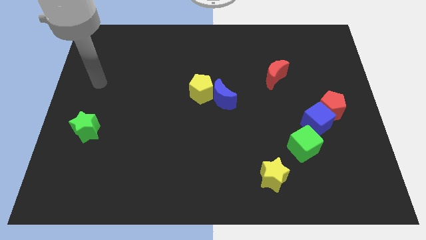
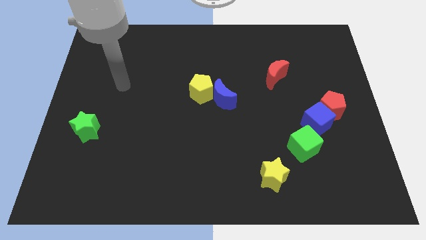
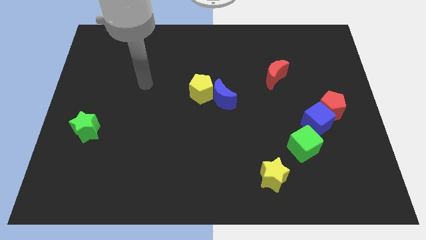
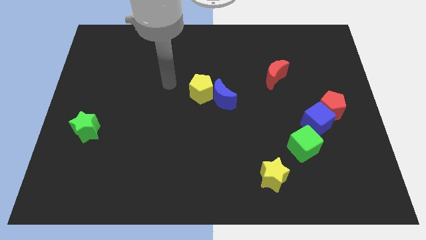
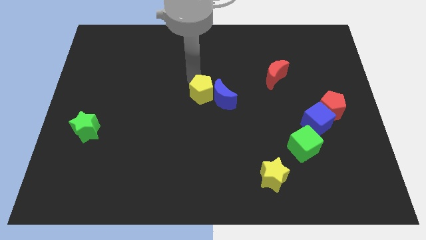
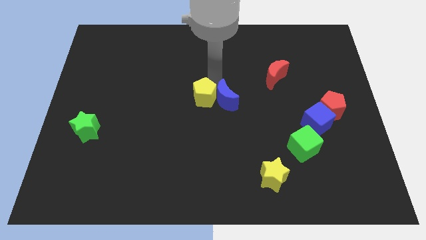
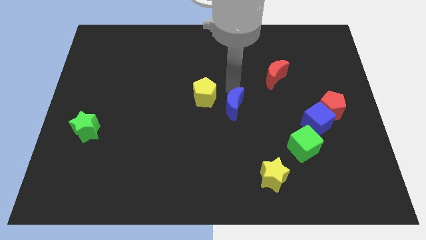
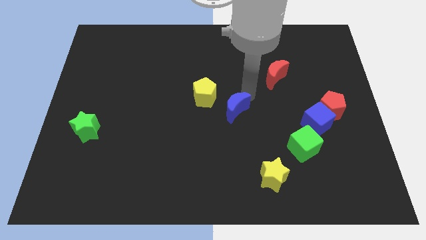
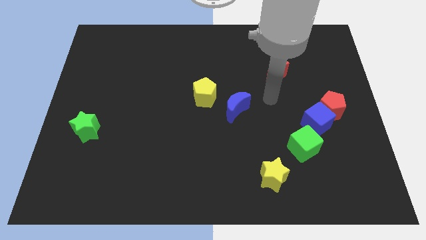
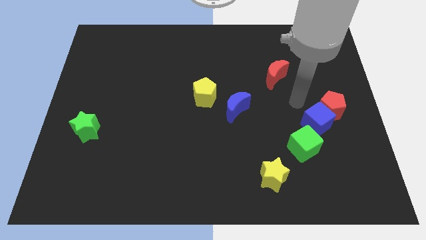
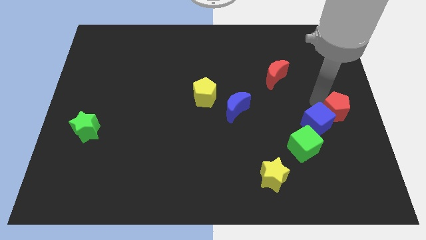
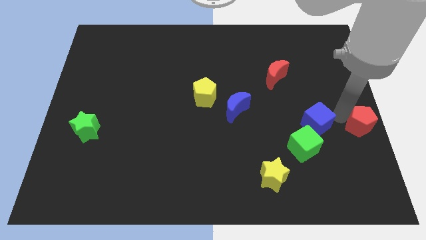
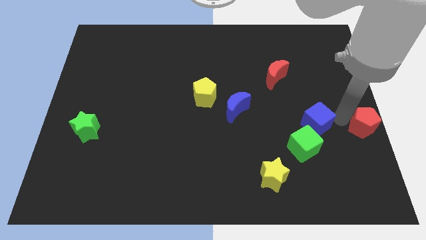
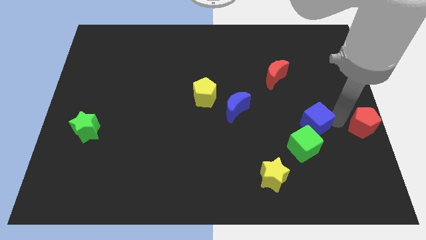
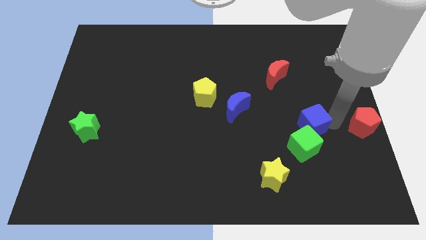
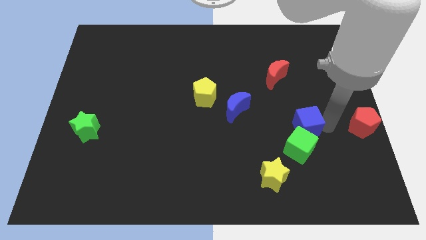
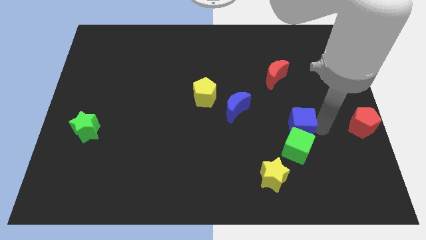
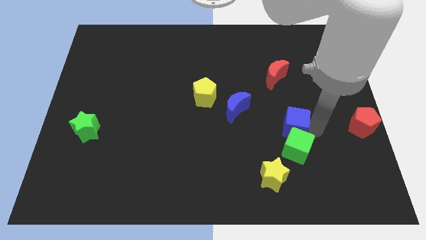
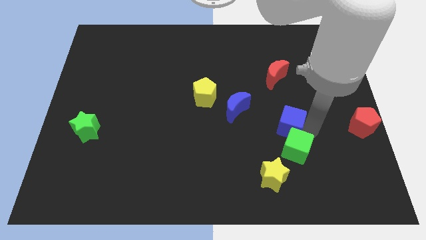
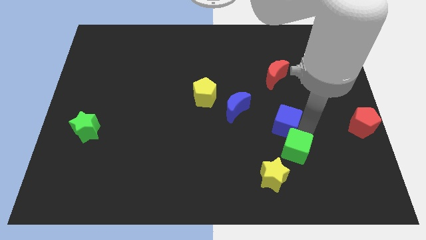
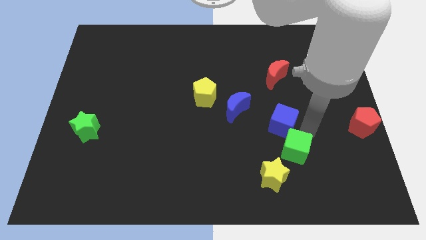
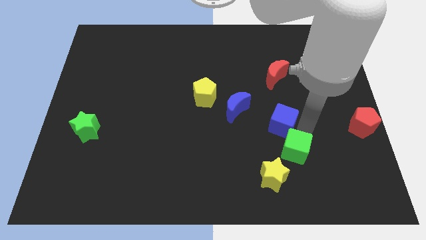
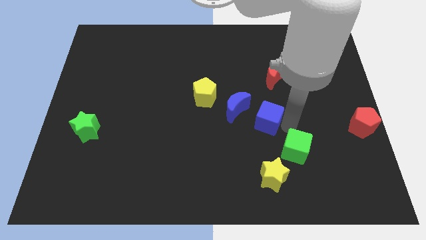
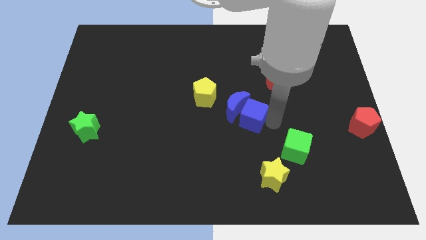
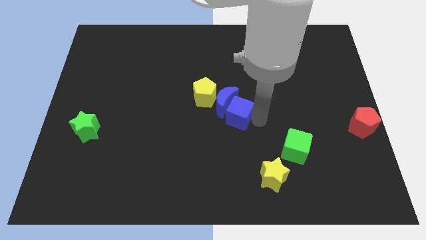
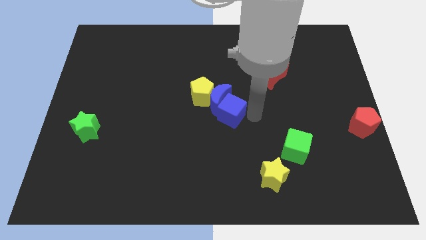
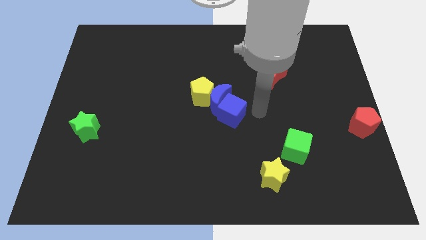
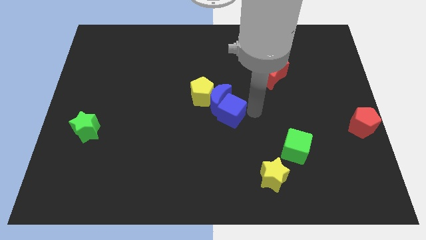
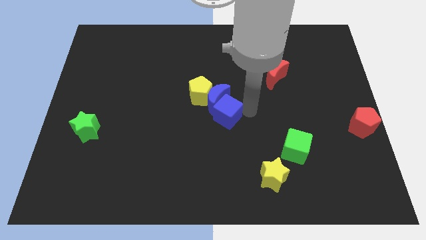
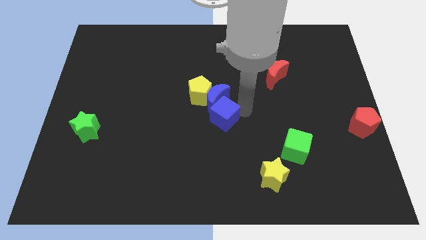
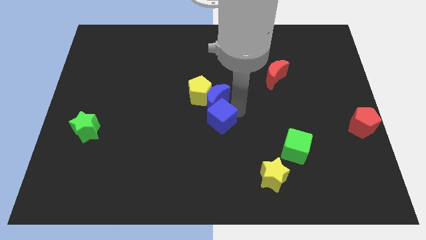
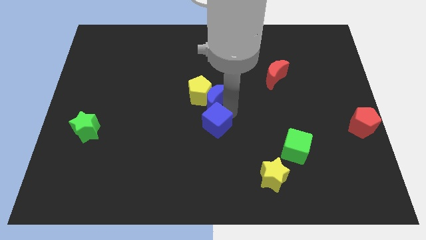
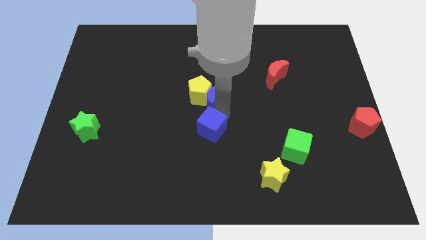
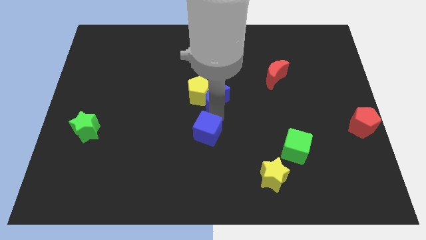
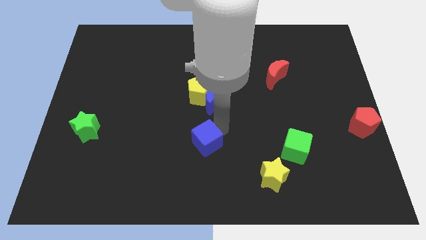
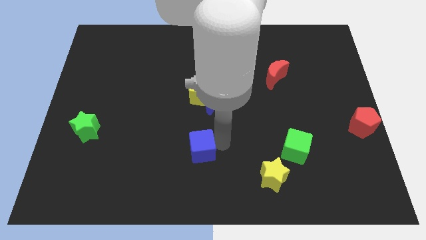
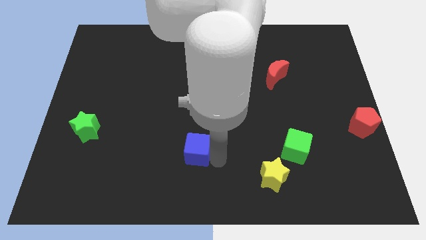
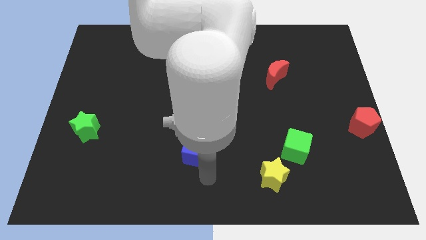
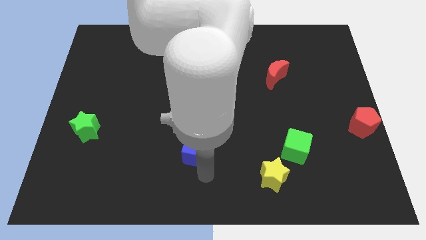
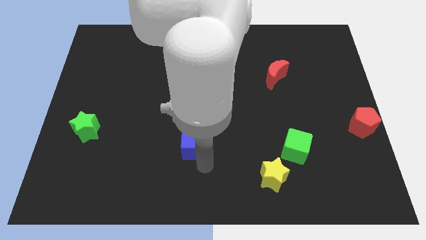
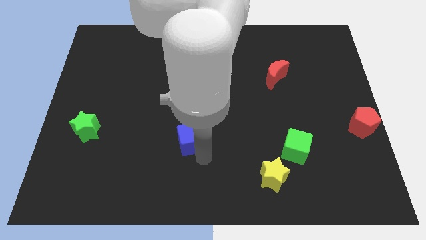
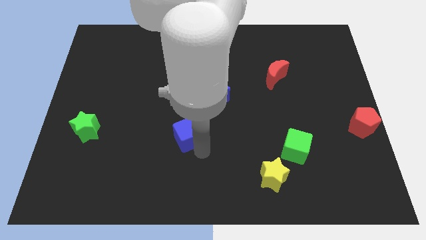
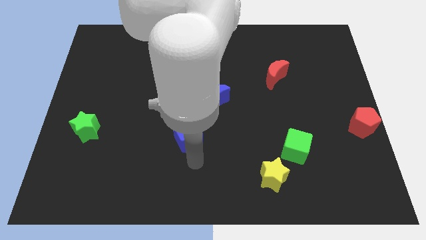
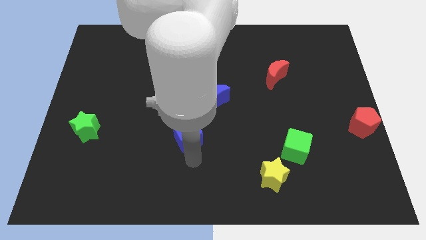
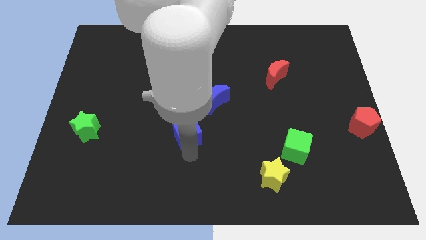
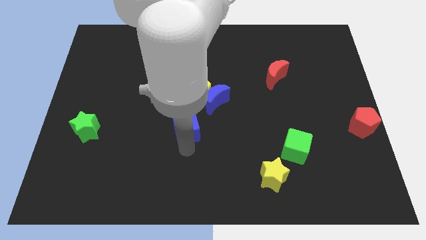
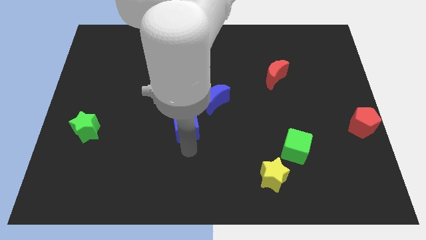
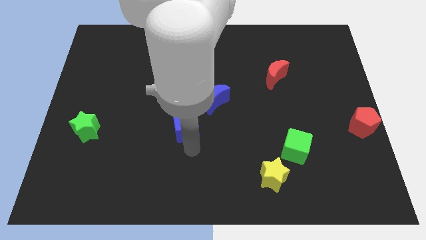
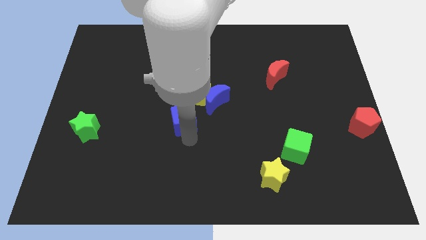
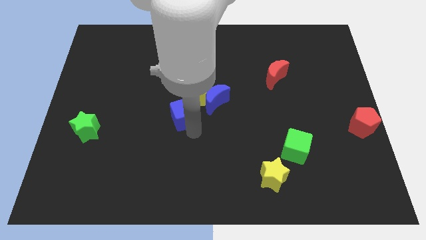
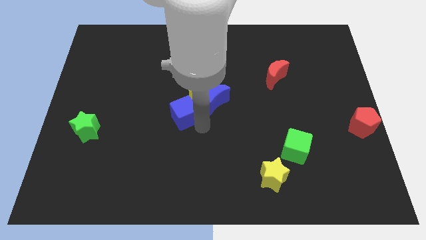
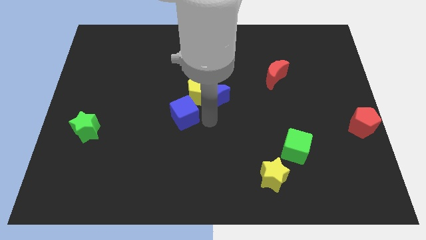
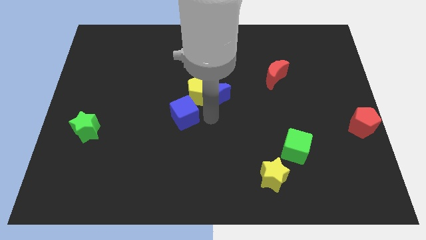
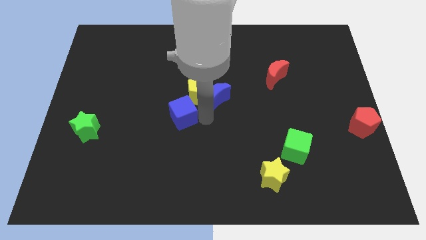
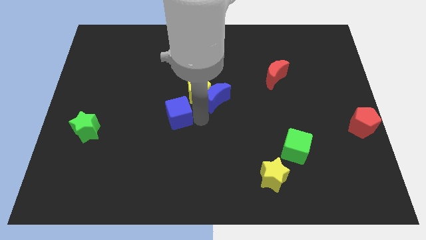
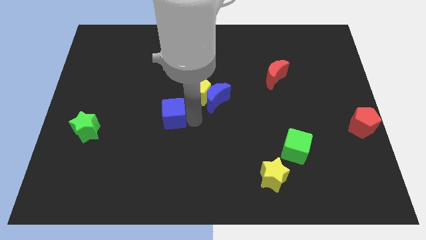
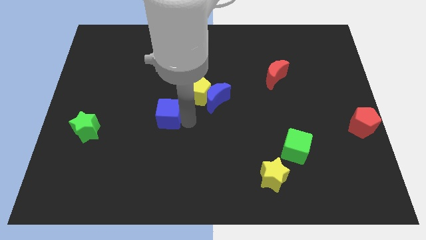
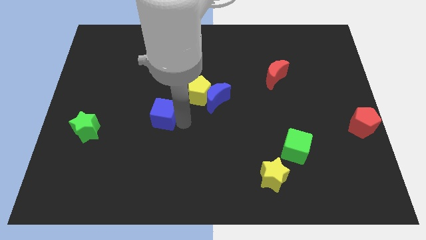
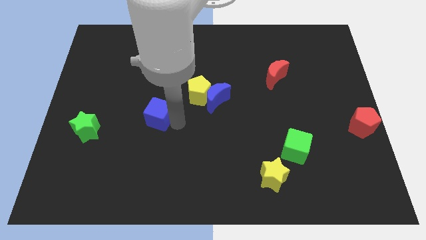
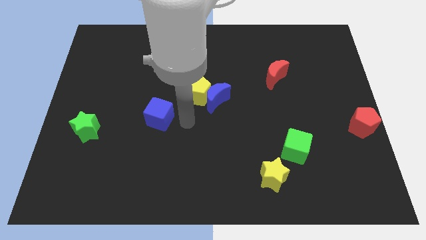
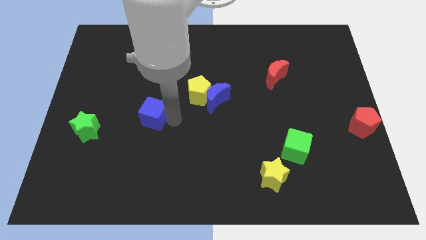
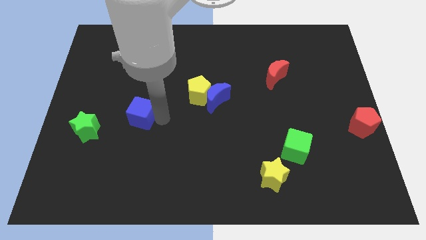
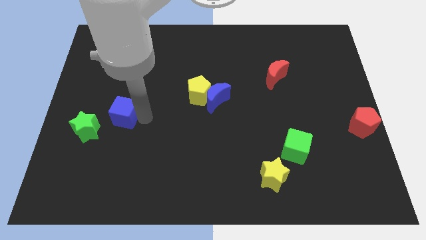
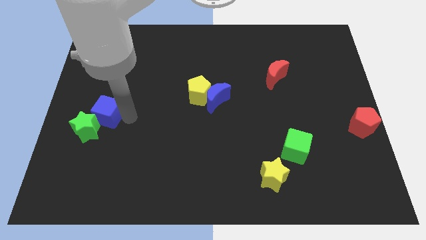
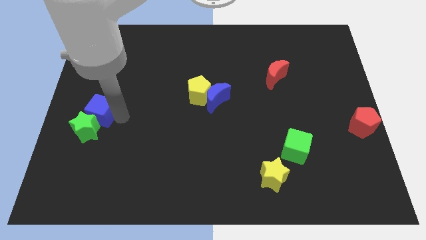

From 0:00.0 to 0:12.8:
move the blue cube to the left side of the board

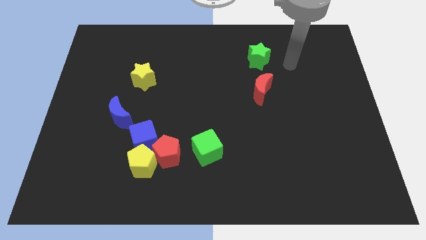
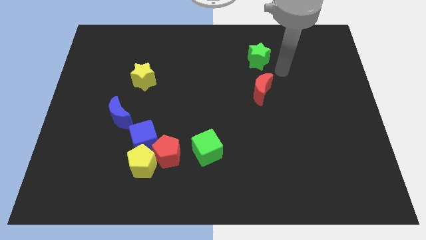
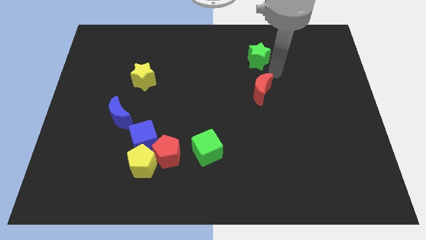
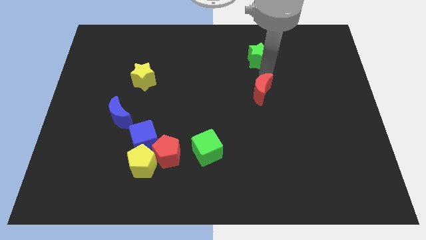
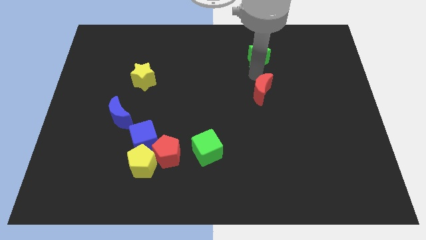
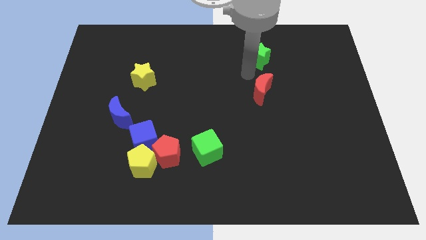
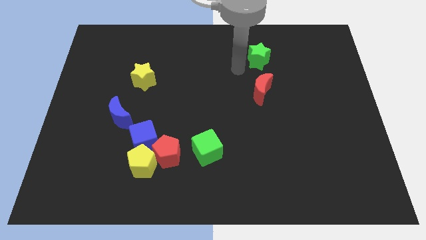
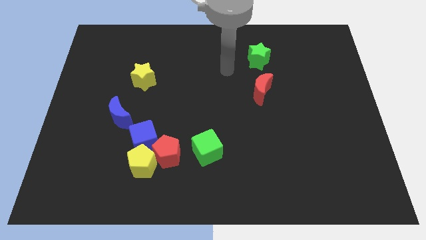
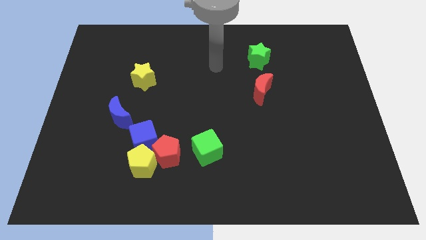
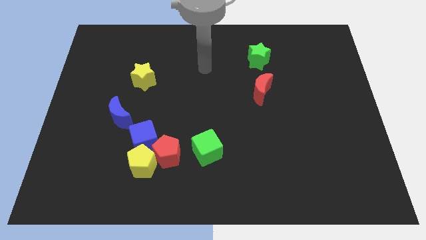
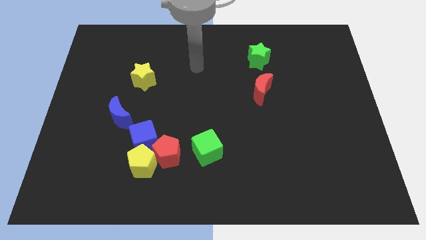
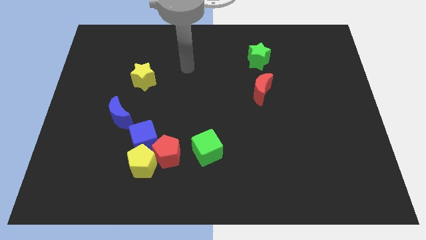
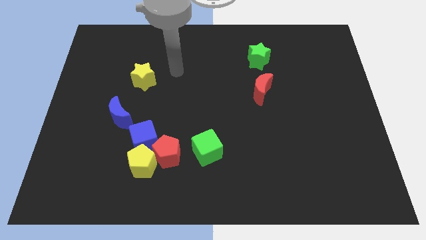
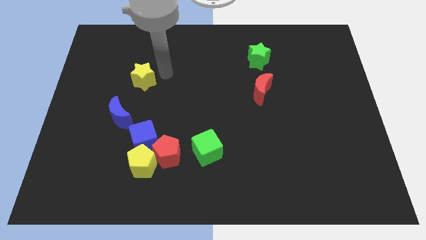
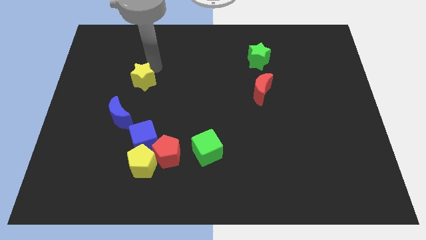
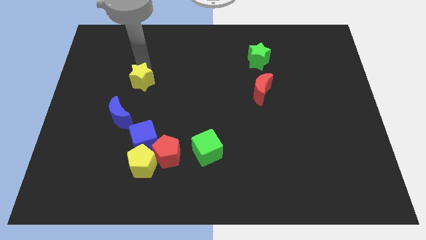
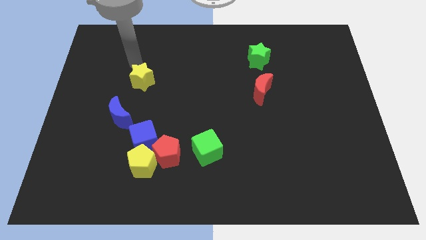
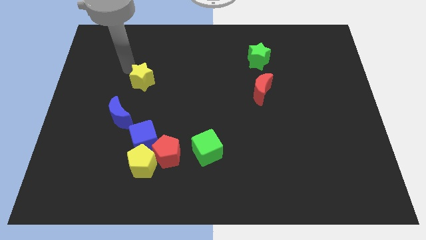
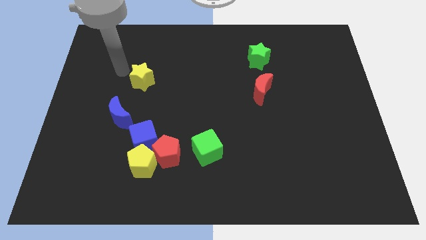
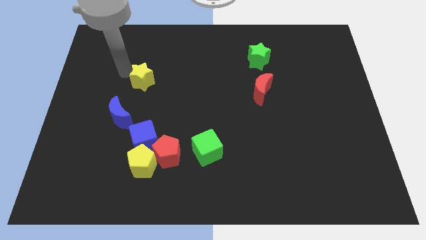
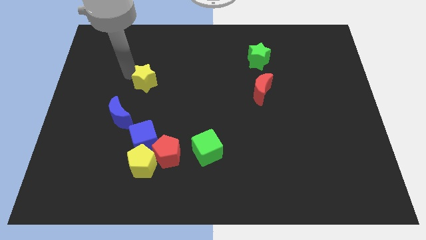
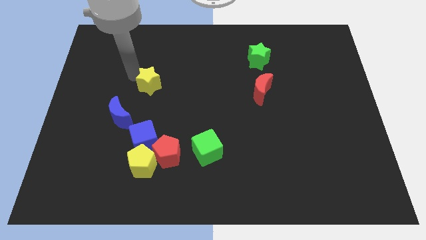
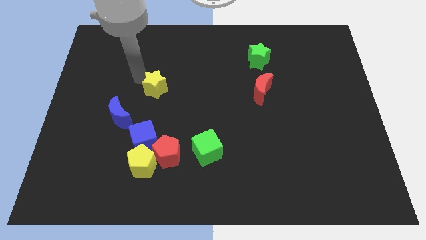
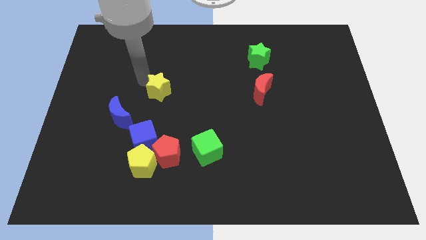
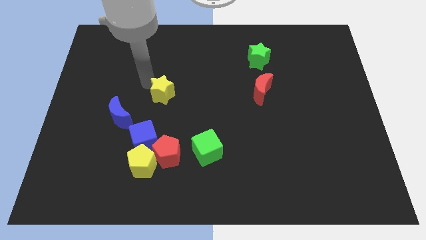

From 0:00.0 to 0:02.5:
put the yellow star to the center
